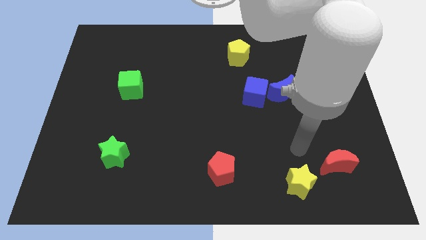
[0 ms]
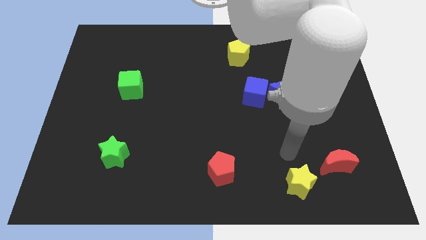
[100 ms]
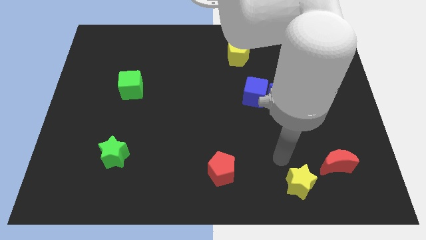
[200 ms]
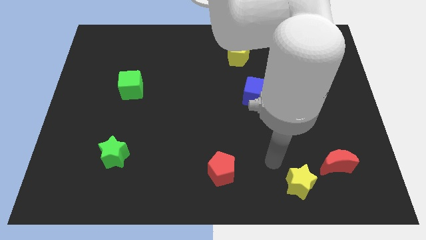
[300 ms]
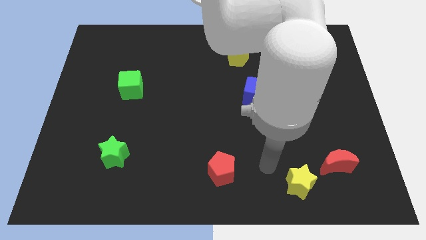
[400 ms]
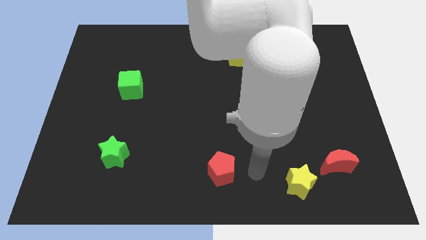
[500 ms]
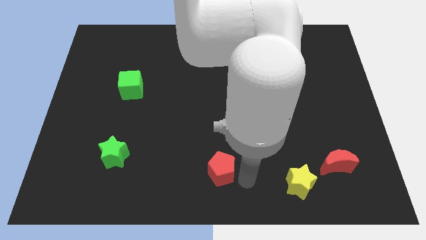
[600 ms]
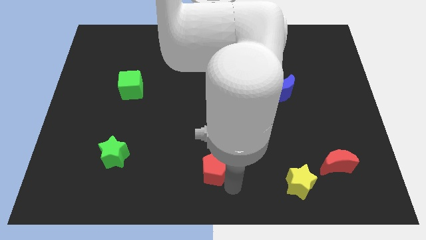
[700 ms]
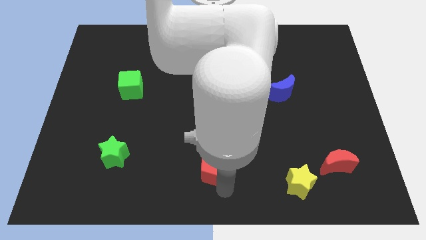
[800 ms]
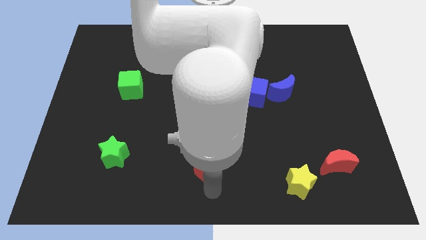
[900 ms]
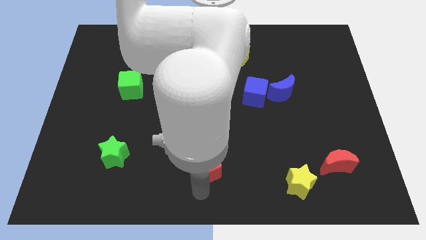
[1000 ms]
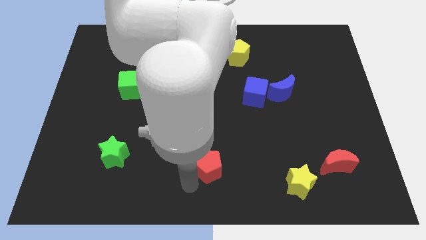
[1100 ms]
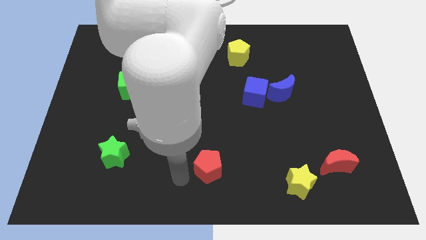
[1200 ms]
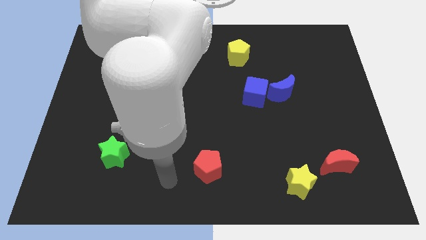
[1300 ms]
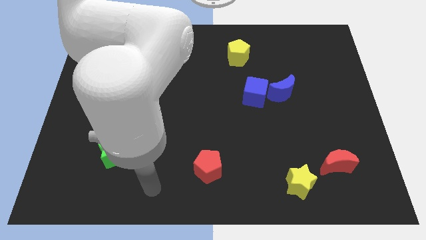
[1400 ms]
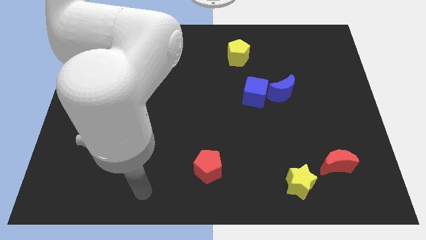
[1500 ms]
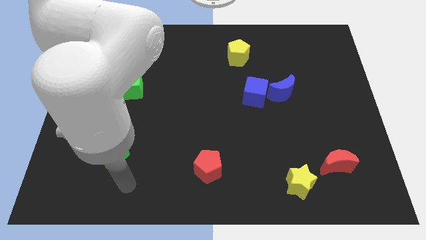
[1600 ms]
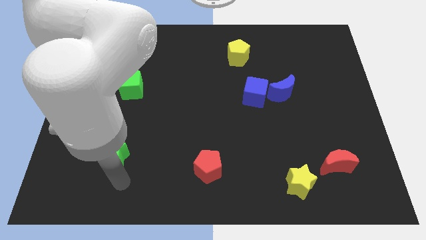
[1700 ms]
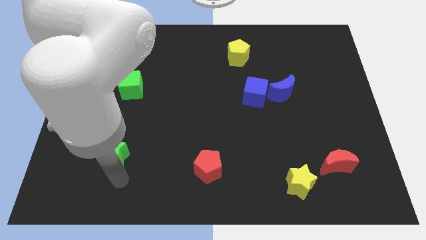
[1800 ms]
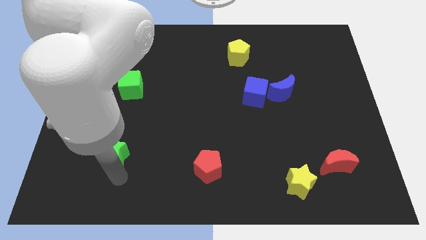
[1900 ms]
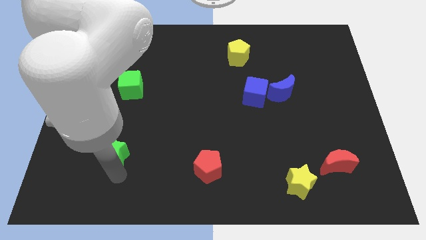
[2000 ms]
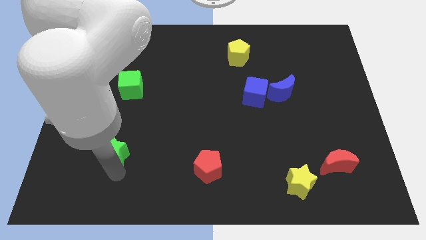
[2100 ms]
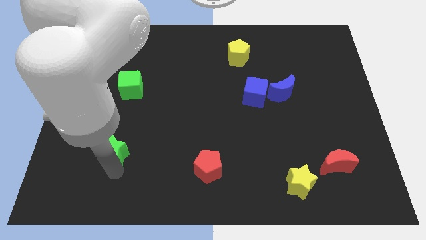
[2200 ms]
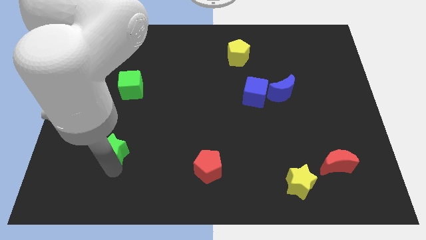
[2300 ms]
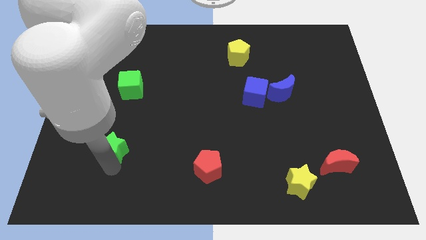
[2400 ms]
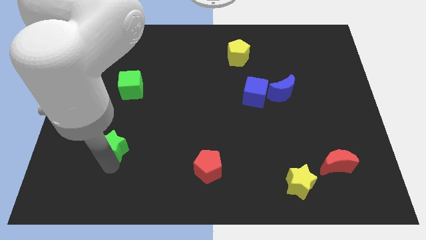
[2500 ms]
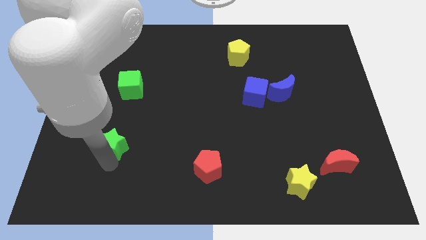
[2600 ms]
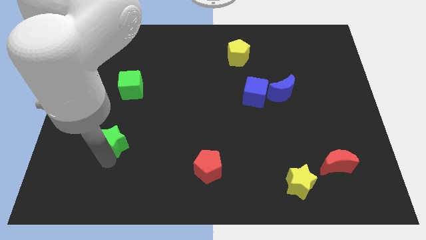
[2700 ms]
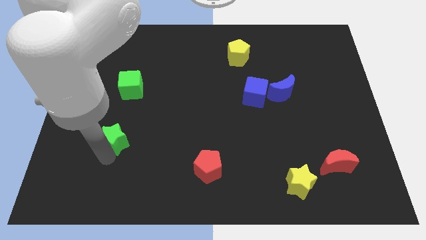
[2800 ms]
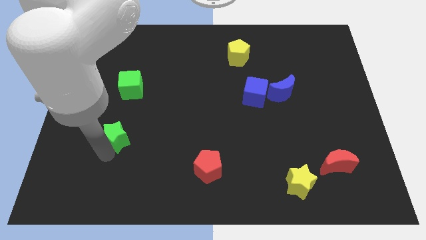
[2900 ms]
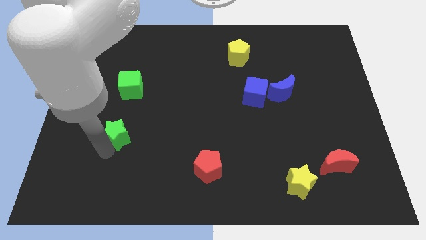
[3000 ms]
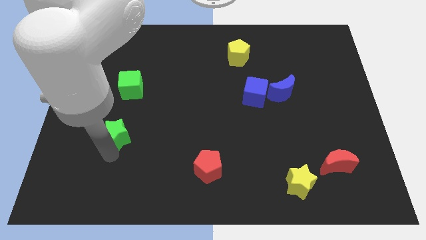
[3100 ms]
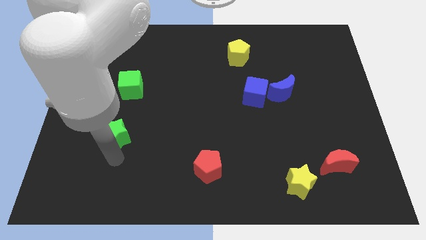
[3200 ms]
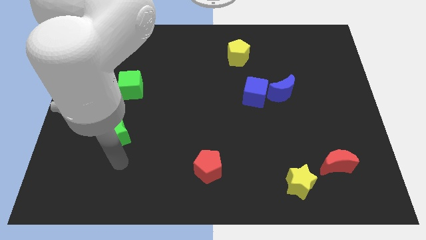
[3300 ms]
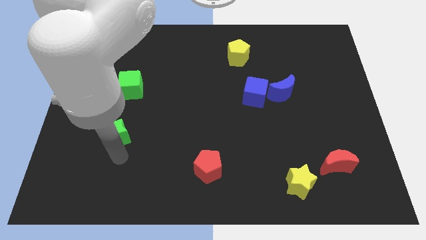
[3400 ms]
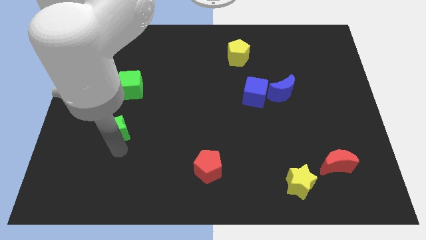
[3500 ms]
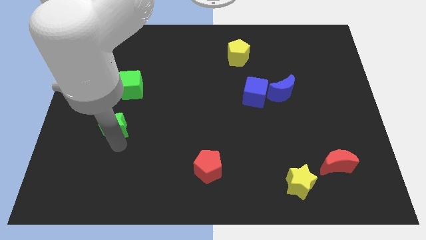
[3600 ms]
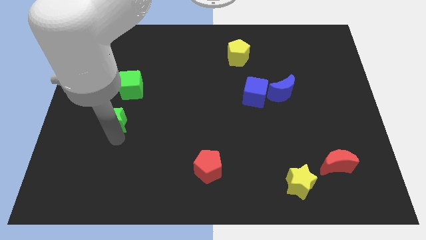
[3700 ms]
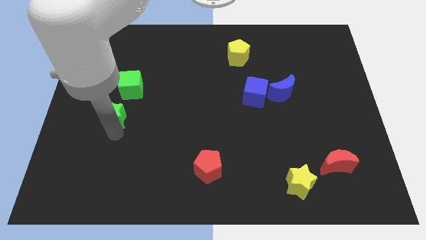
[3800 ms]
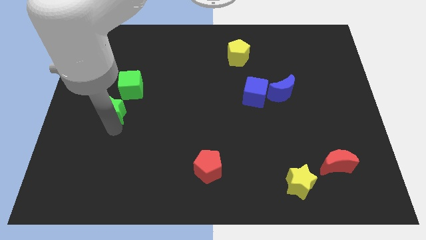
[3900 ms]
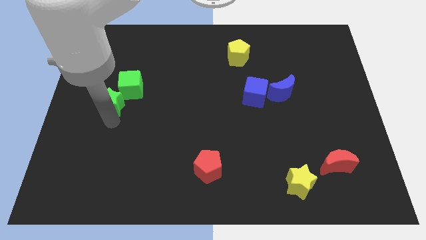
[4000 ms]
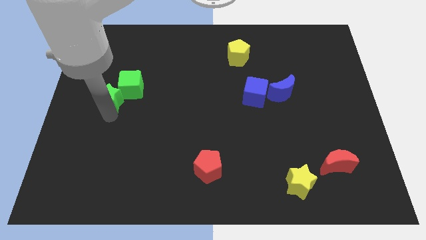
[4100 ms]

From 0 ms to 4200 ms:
put the green star to the green cube

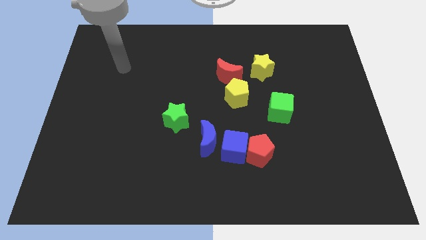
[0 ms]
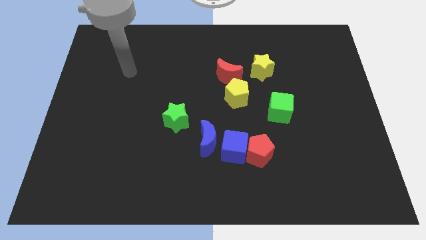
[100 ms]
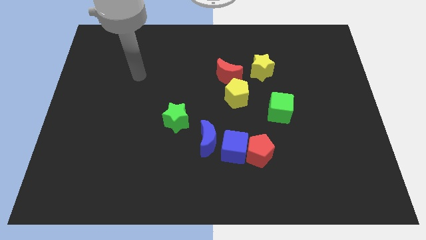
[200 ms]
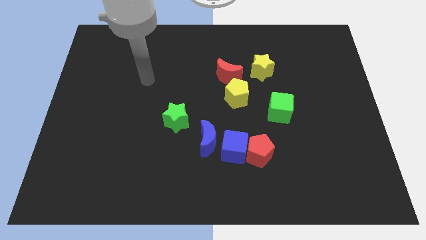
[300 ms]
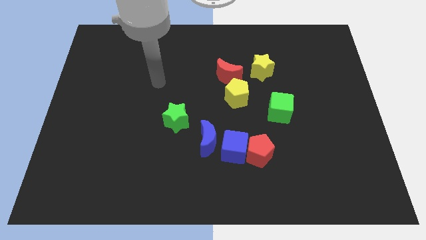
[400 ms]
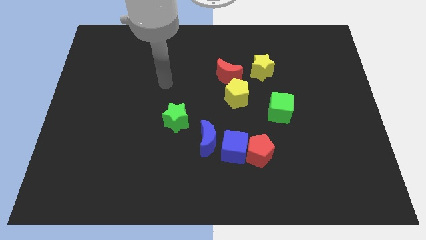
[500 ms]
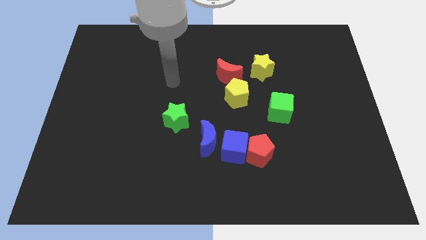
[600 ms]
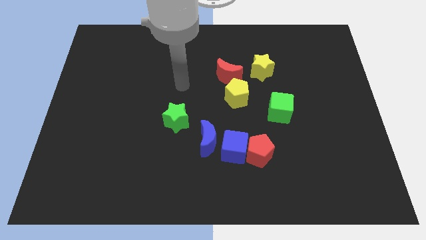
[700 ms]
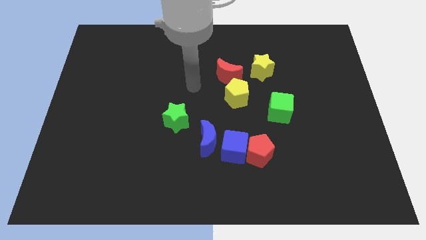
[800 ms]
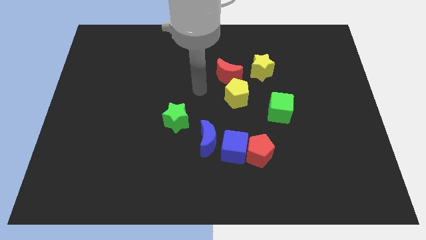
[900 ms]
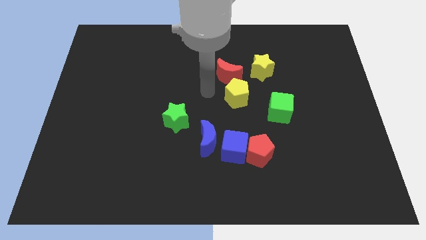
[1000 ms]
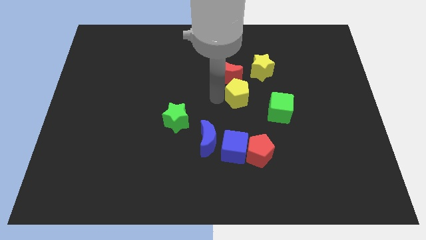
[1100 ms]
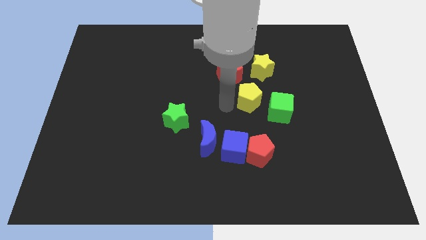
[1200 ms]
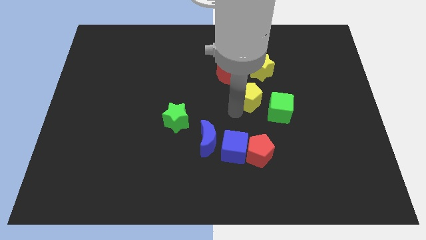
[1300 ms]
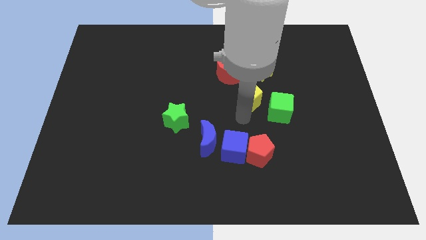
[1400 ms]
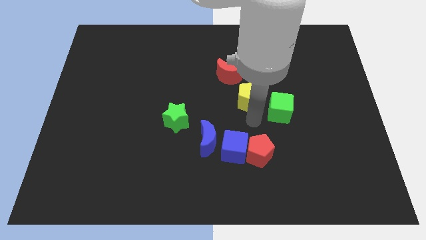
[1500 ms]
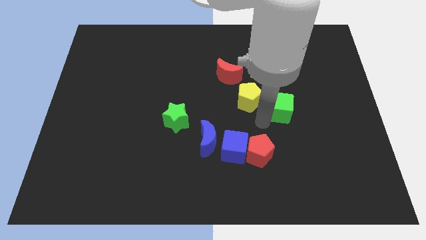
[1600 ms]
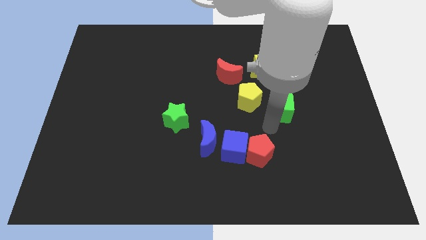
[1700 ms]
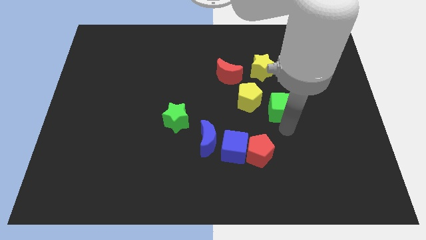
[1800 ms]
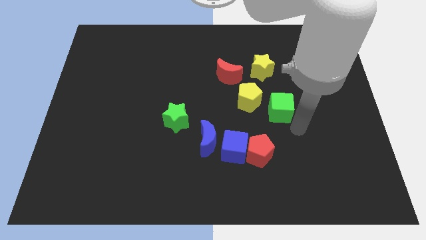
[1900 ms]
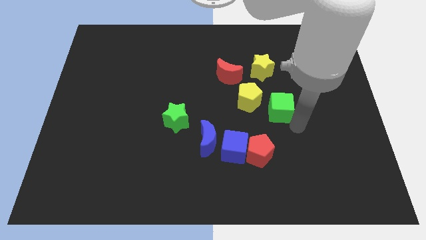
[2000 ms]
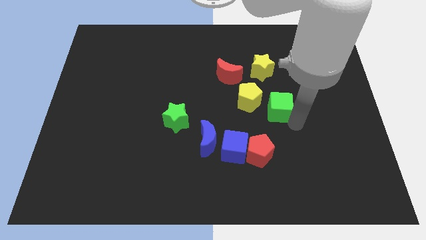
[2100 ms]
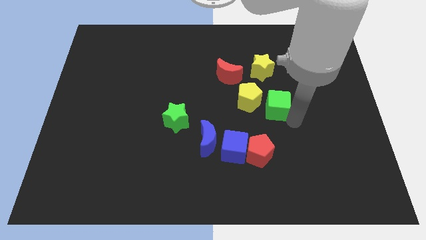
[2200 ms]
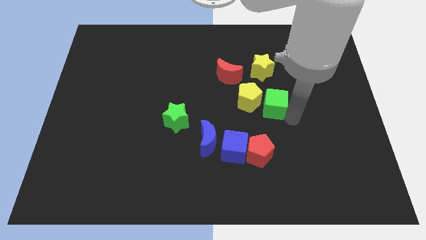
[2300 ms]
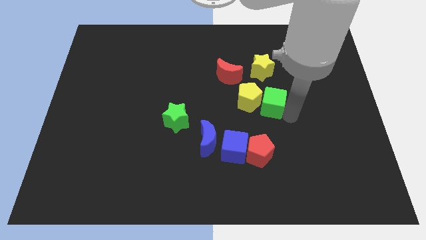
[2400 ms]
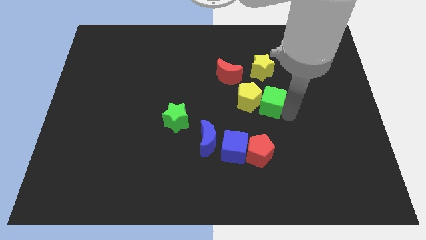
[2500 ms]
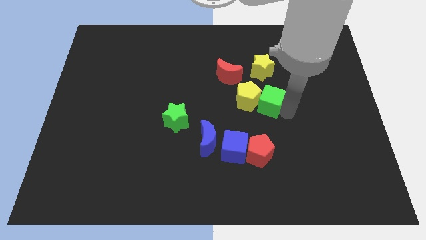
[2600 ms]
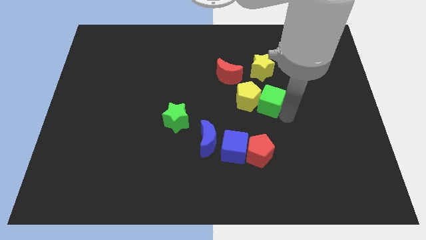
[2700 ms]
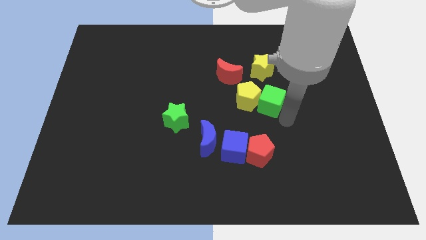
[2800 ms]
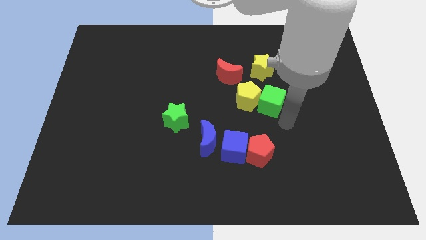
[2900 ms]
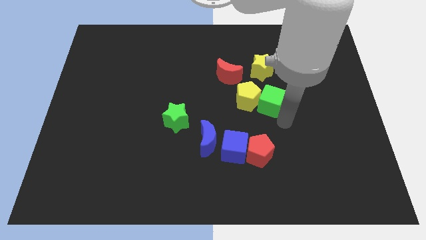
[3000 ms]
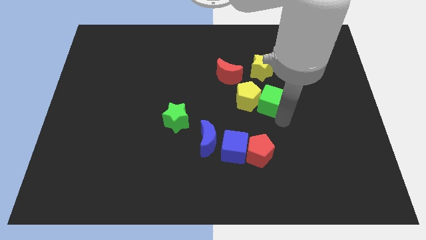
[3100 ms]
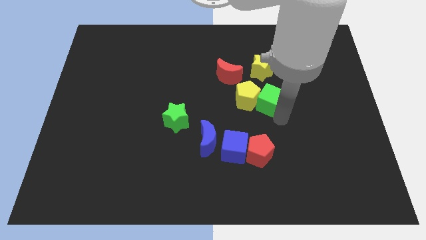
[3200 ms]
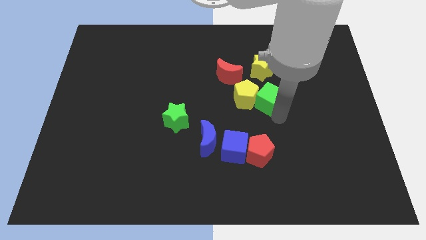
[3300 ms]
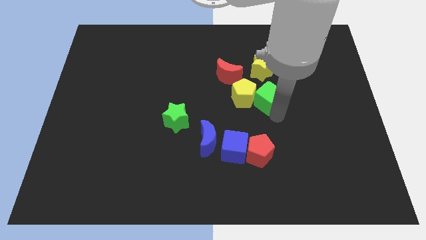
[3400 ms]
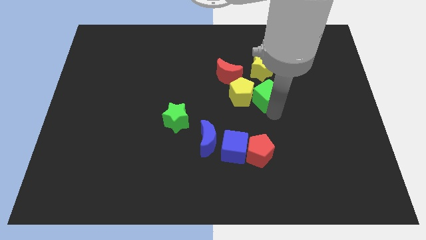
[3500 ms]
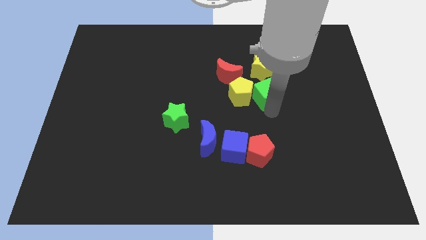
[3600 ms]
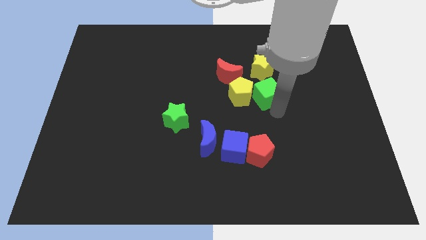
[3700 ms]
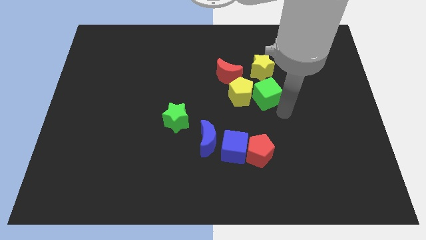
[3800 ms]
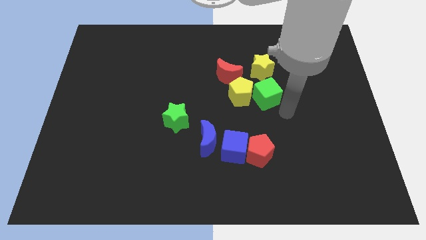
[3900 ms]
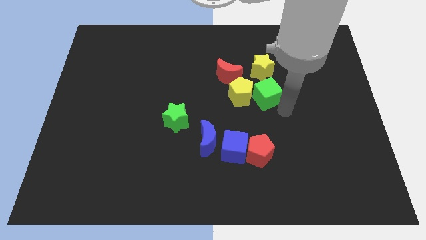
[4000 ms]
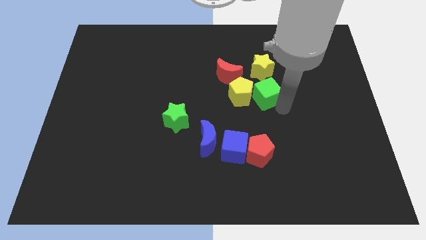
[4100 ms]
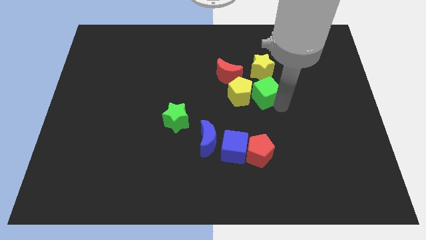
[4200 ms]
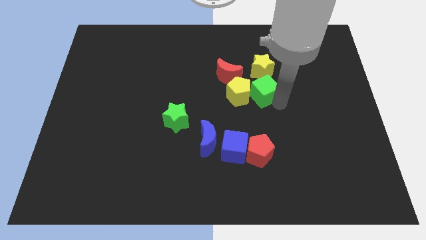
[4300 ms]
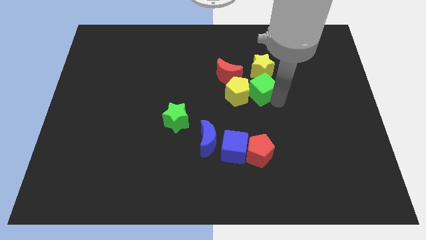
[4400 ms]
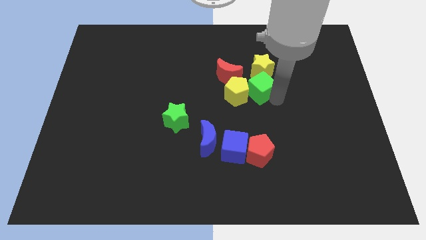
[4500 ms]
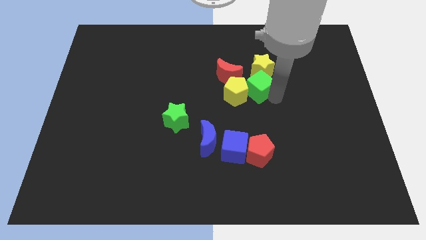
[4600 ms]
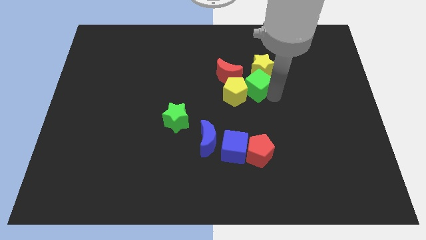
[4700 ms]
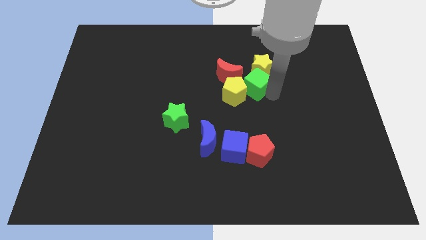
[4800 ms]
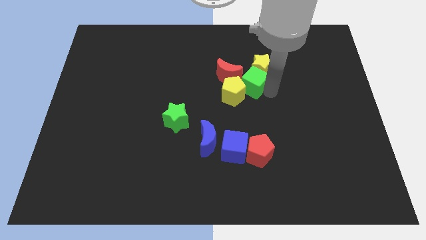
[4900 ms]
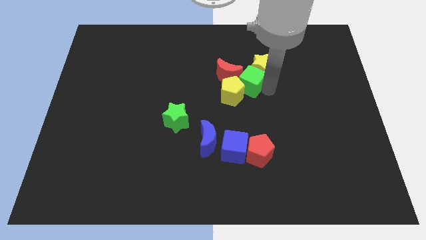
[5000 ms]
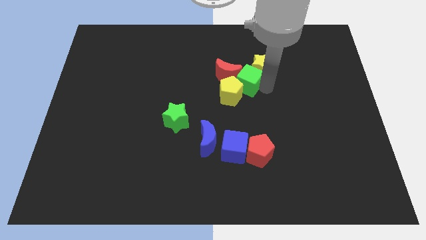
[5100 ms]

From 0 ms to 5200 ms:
put the green cube to the red moon
